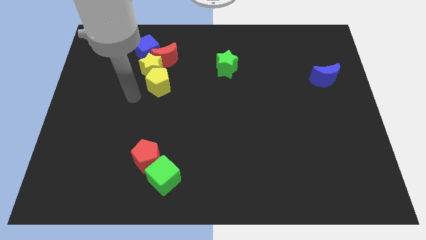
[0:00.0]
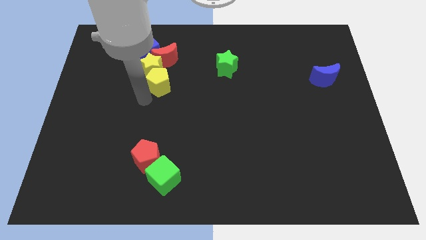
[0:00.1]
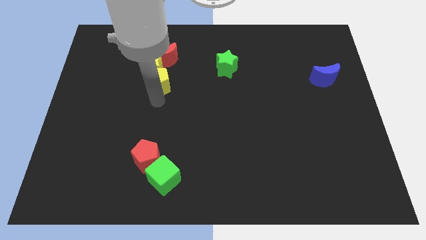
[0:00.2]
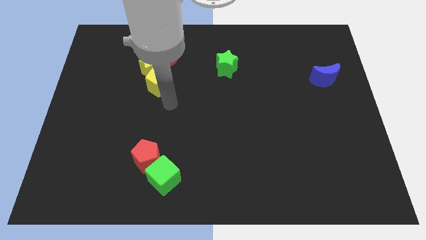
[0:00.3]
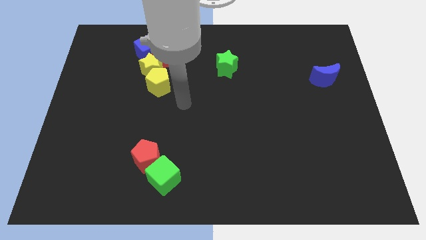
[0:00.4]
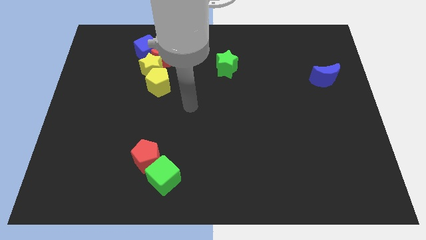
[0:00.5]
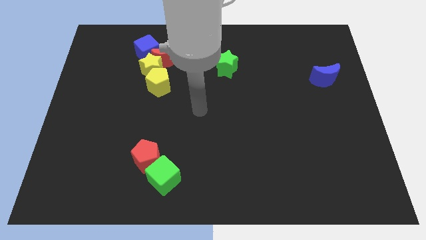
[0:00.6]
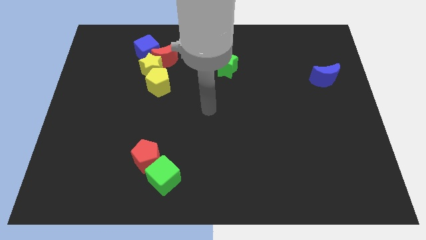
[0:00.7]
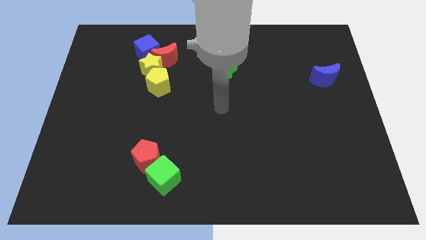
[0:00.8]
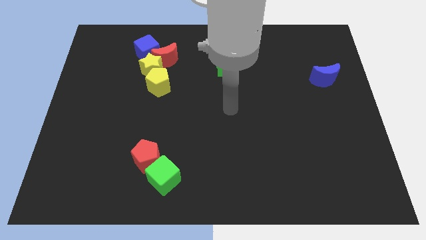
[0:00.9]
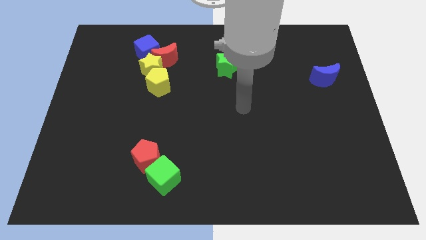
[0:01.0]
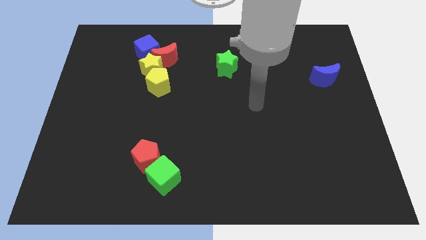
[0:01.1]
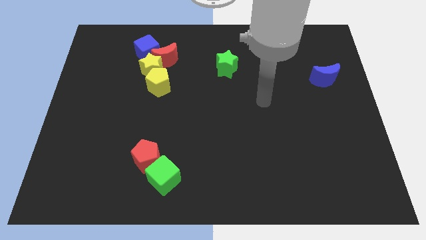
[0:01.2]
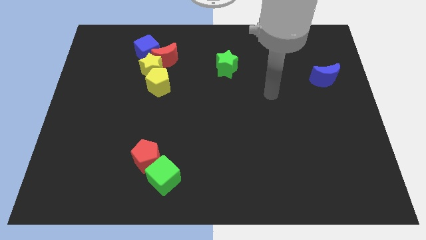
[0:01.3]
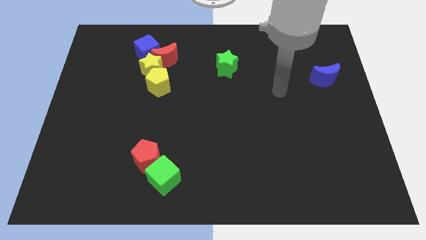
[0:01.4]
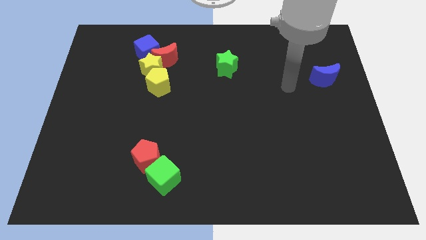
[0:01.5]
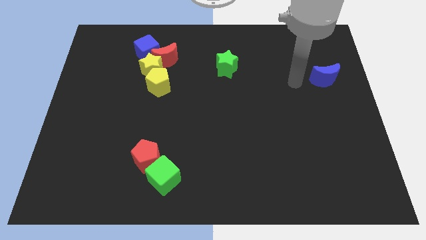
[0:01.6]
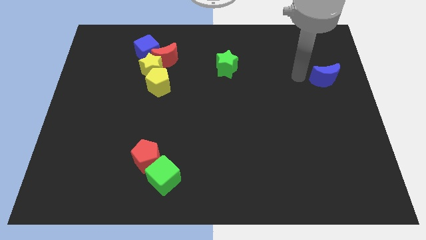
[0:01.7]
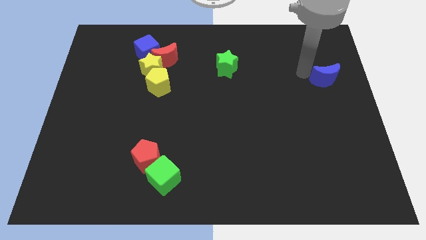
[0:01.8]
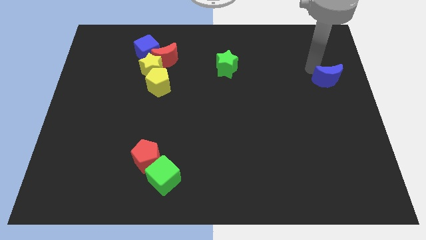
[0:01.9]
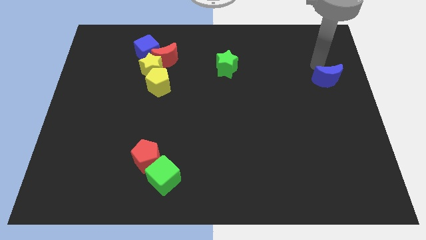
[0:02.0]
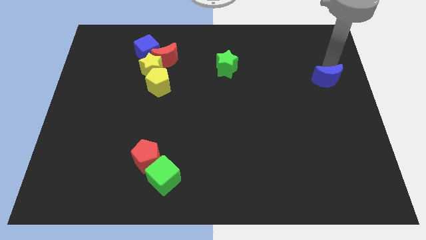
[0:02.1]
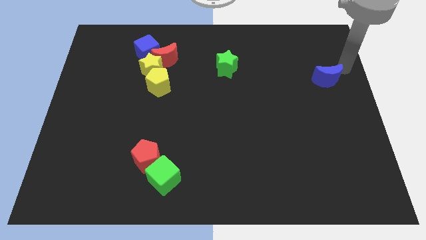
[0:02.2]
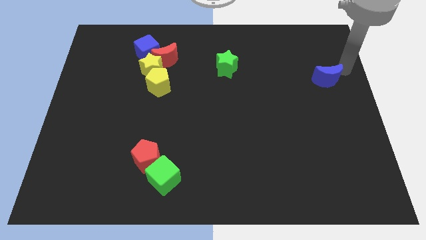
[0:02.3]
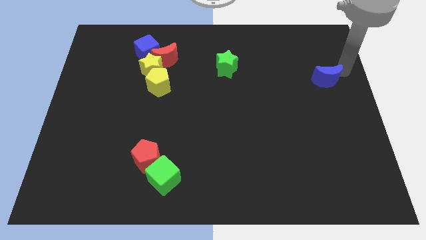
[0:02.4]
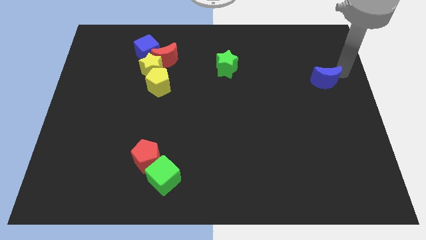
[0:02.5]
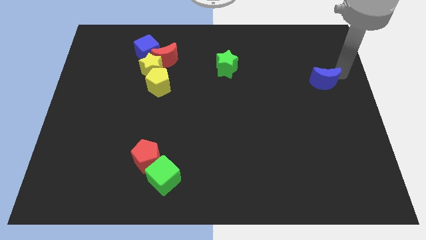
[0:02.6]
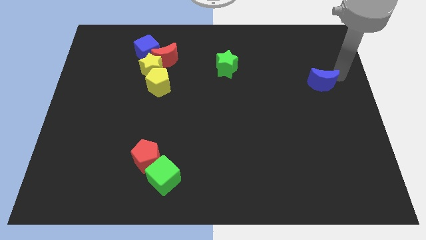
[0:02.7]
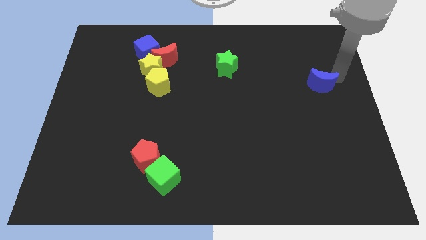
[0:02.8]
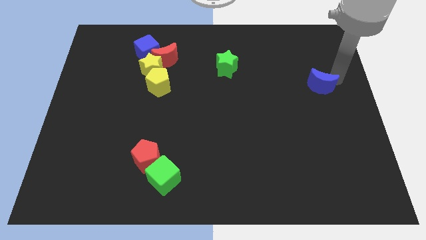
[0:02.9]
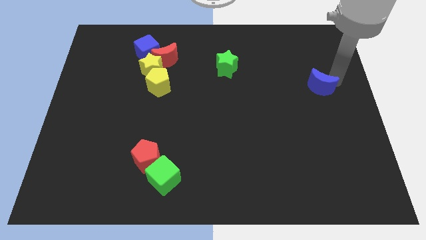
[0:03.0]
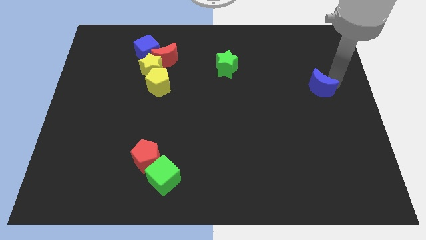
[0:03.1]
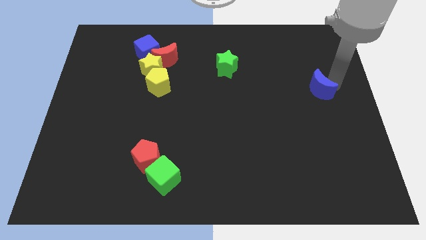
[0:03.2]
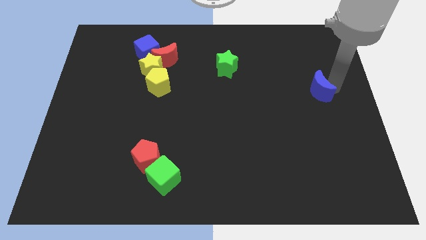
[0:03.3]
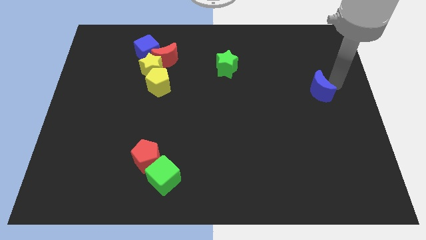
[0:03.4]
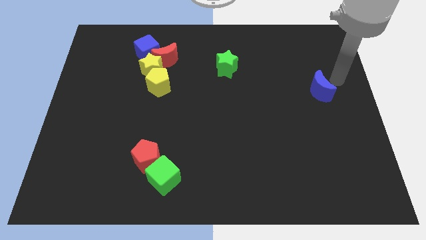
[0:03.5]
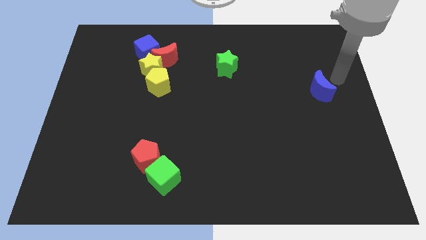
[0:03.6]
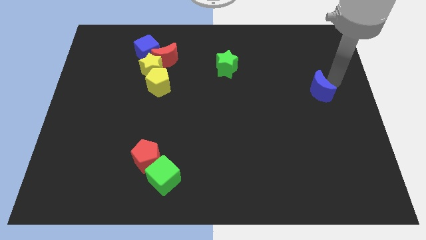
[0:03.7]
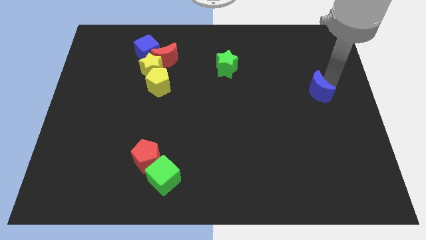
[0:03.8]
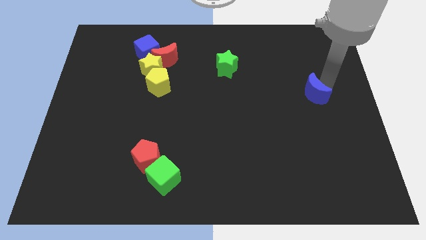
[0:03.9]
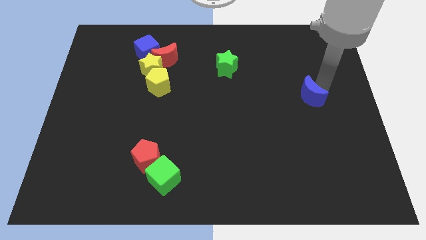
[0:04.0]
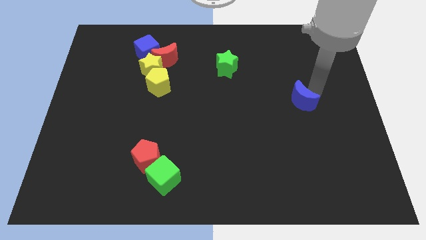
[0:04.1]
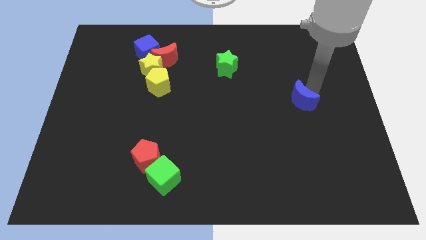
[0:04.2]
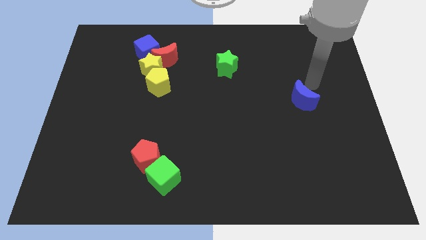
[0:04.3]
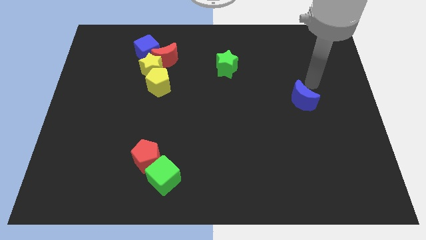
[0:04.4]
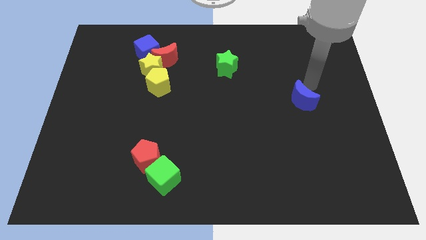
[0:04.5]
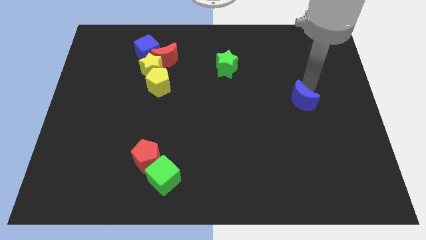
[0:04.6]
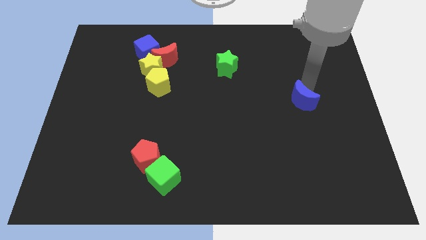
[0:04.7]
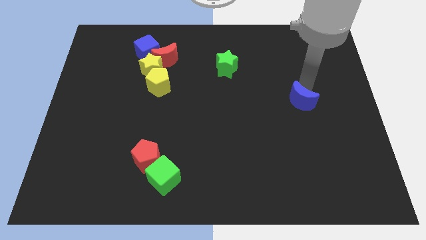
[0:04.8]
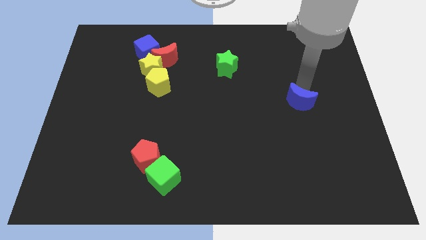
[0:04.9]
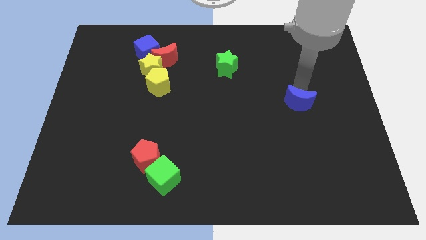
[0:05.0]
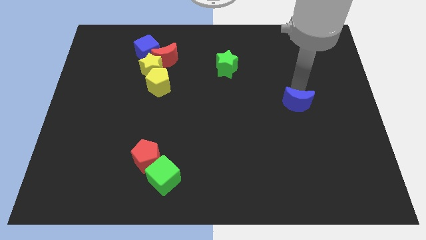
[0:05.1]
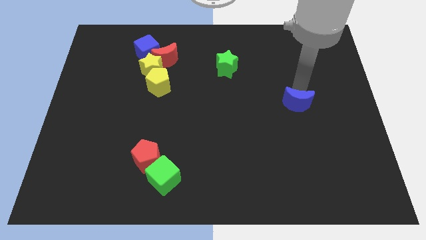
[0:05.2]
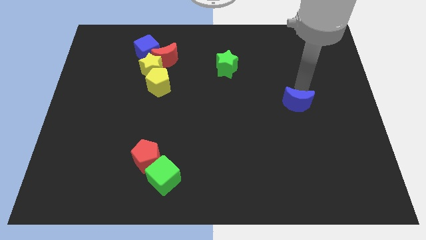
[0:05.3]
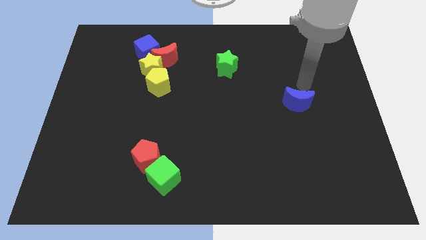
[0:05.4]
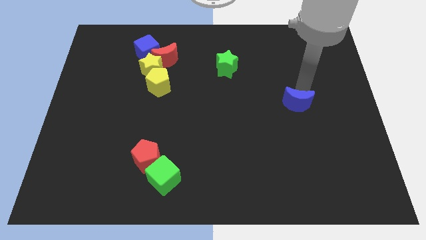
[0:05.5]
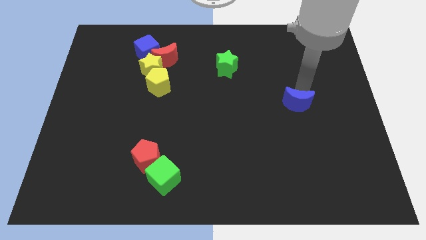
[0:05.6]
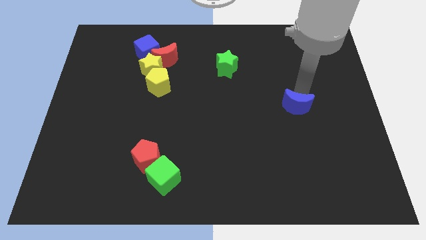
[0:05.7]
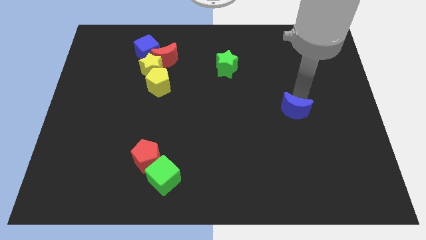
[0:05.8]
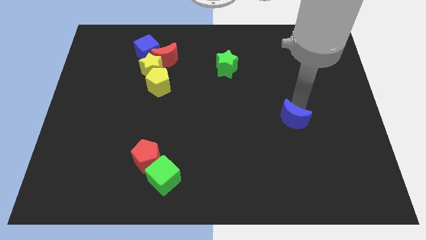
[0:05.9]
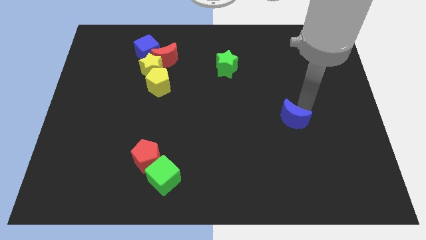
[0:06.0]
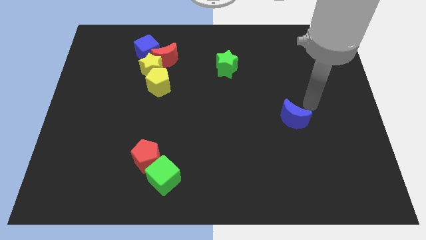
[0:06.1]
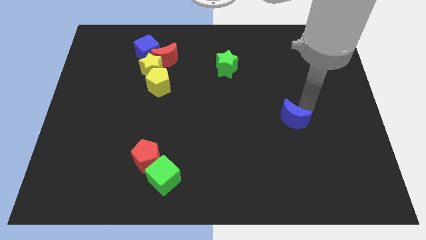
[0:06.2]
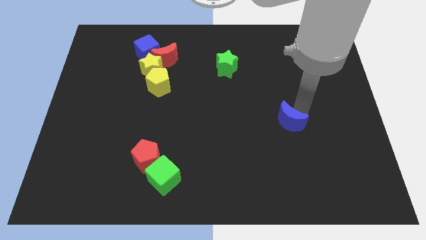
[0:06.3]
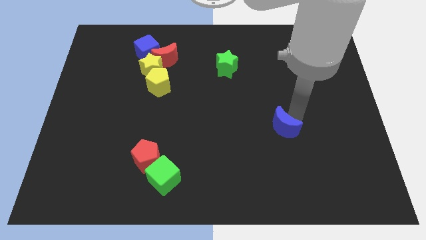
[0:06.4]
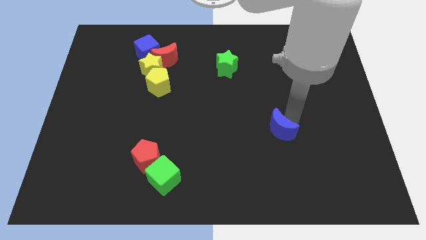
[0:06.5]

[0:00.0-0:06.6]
push the blue moon diagonally down and left

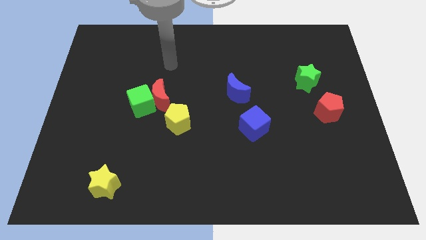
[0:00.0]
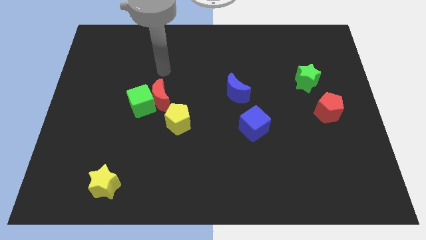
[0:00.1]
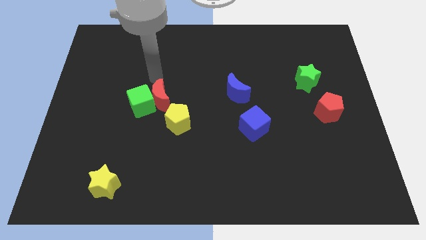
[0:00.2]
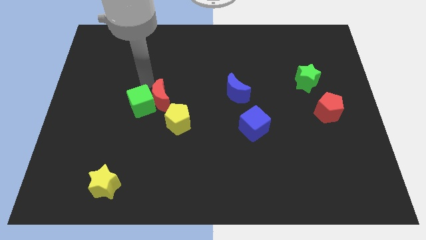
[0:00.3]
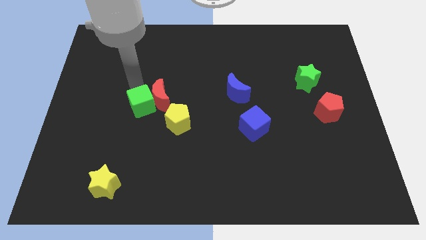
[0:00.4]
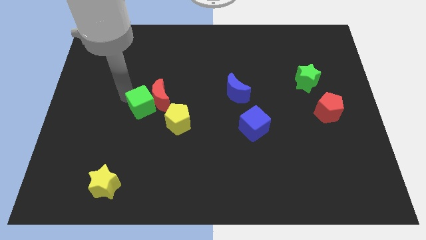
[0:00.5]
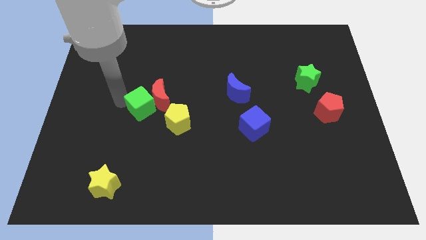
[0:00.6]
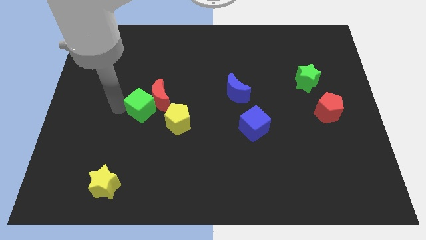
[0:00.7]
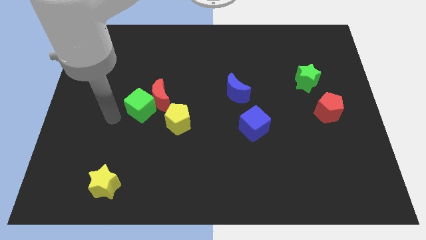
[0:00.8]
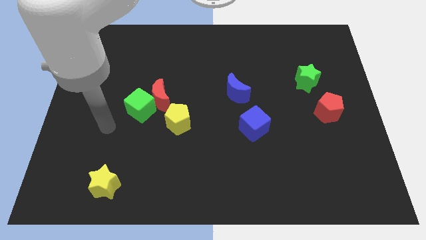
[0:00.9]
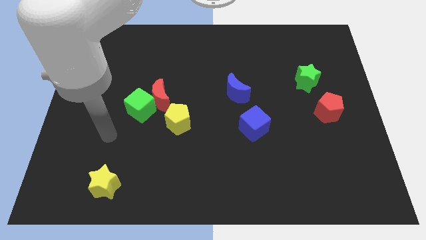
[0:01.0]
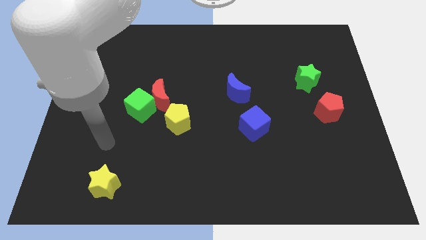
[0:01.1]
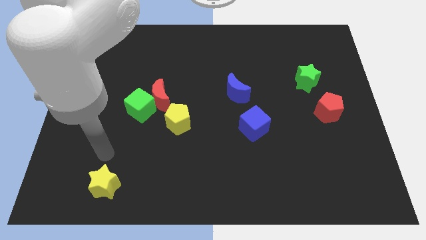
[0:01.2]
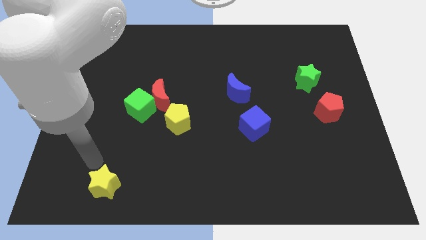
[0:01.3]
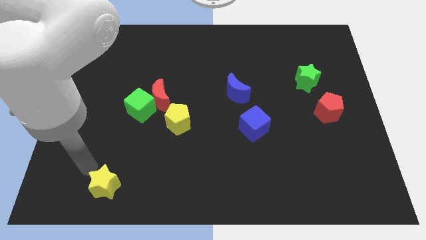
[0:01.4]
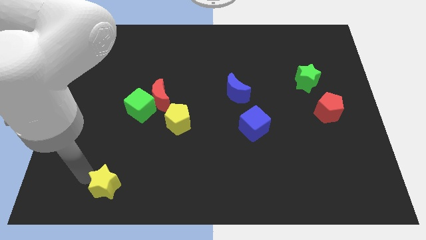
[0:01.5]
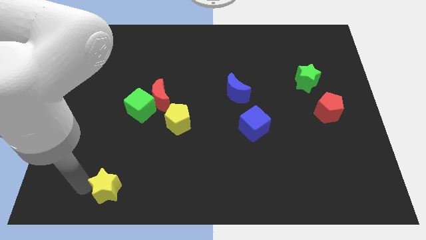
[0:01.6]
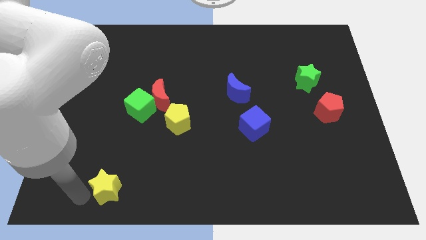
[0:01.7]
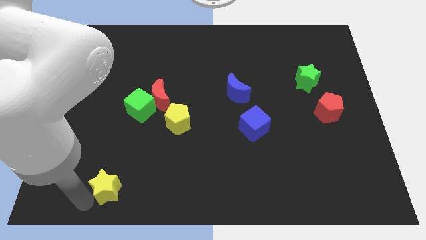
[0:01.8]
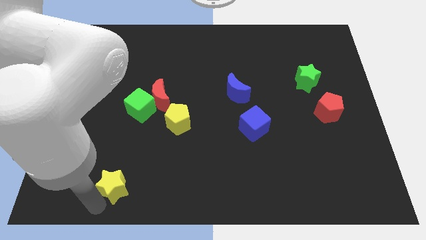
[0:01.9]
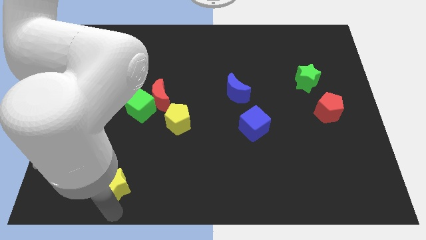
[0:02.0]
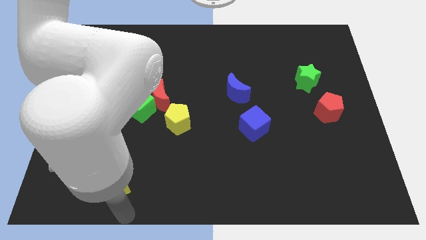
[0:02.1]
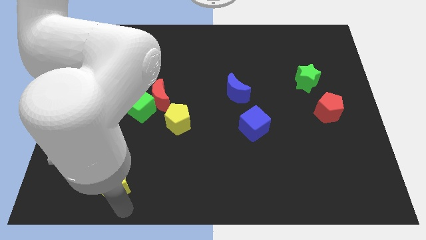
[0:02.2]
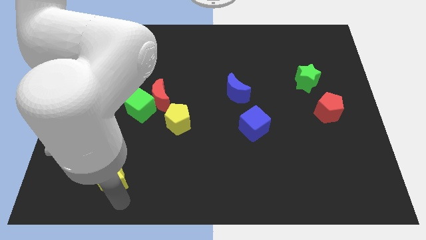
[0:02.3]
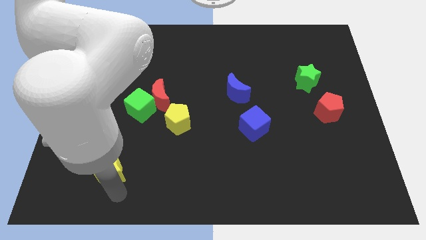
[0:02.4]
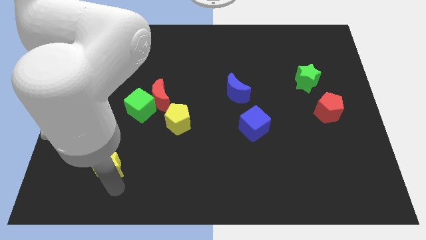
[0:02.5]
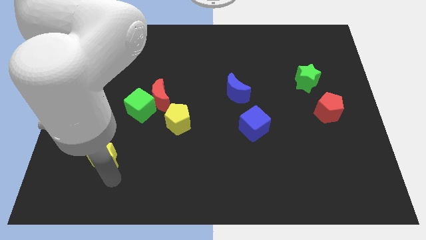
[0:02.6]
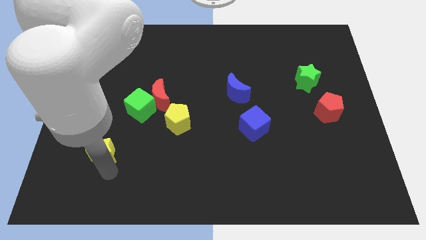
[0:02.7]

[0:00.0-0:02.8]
slightly move the yellow star up
